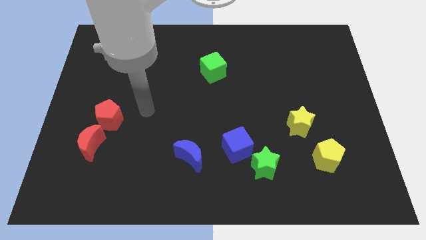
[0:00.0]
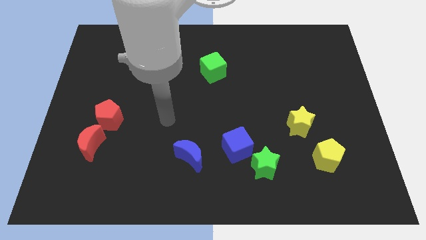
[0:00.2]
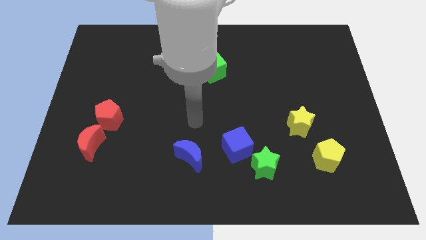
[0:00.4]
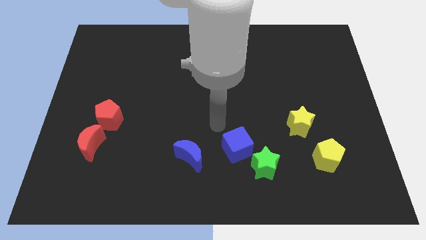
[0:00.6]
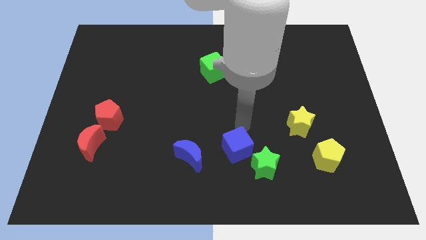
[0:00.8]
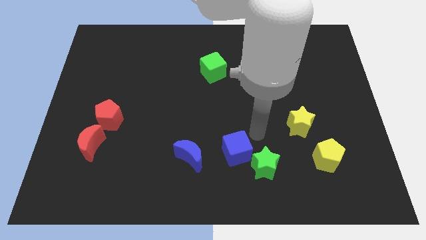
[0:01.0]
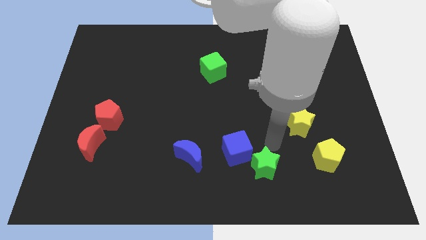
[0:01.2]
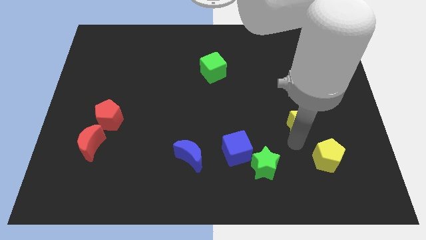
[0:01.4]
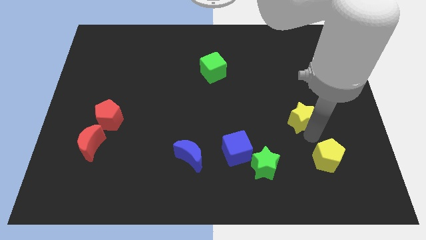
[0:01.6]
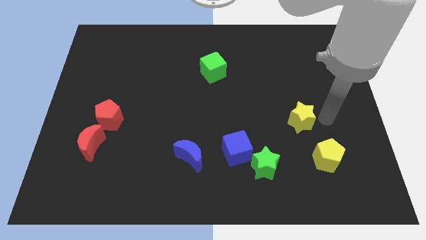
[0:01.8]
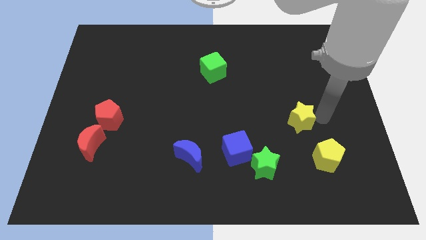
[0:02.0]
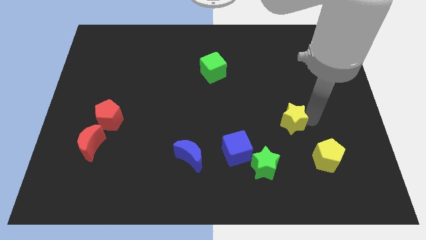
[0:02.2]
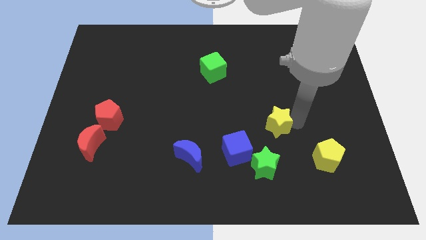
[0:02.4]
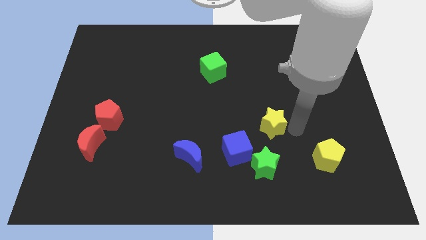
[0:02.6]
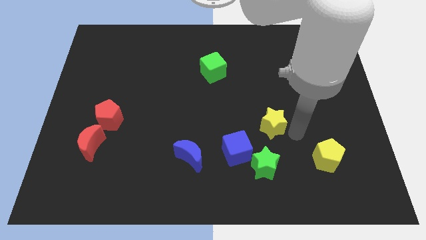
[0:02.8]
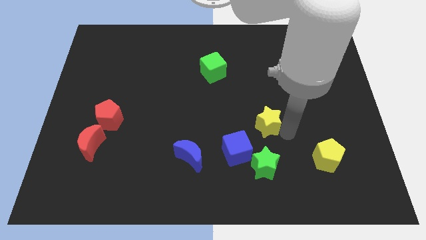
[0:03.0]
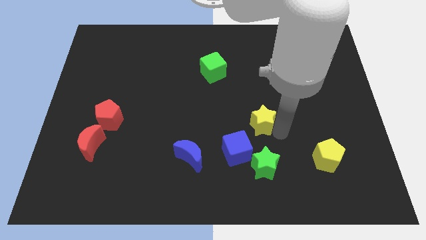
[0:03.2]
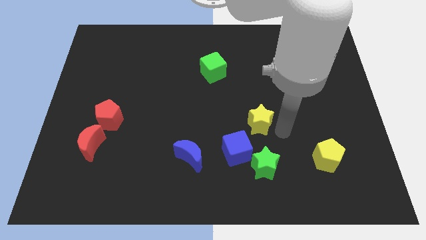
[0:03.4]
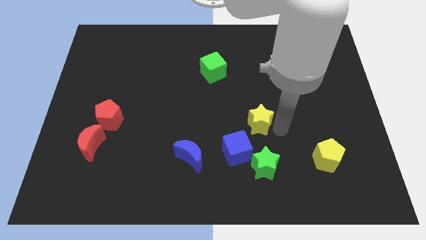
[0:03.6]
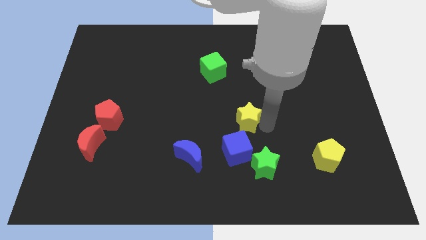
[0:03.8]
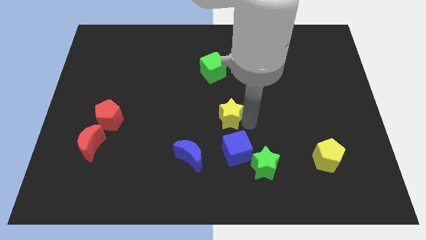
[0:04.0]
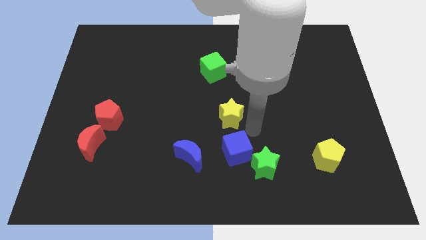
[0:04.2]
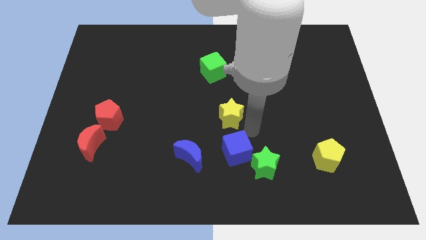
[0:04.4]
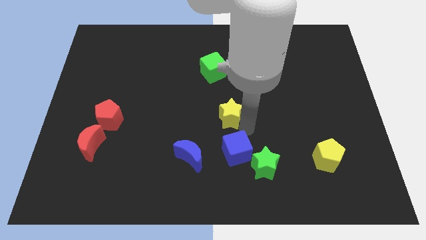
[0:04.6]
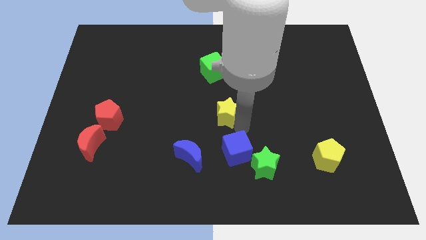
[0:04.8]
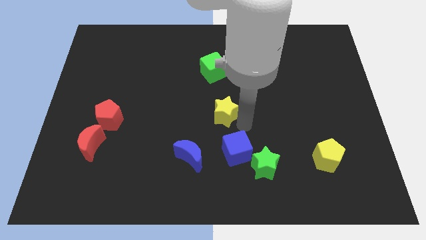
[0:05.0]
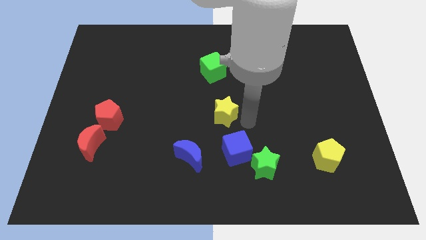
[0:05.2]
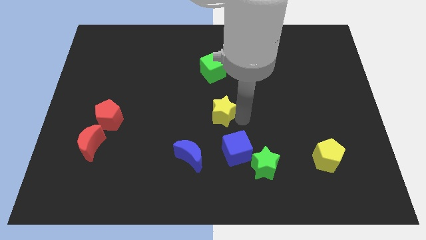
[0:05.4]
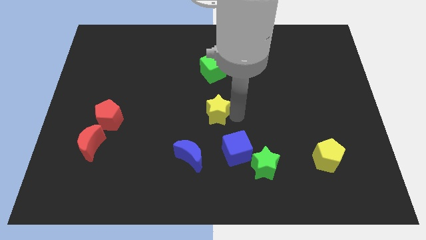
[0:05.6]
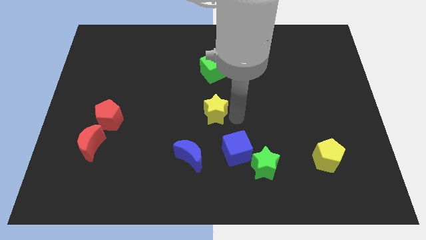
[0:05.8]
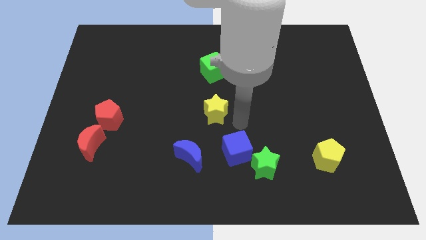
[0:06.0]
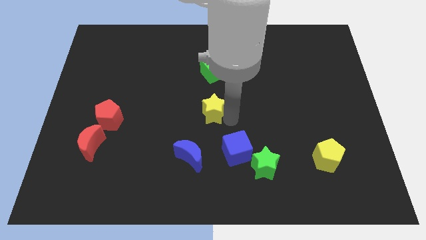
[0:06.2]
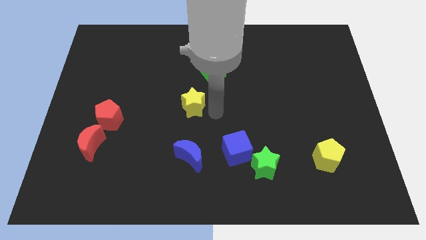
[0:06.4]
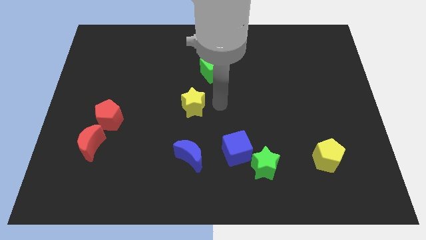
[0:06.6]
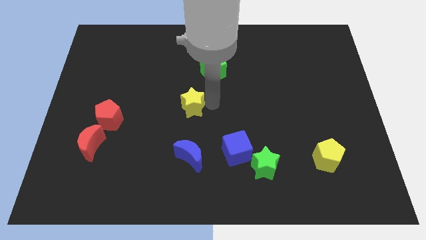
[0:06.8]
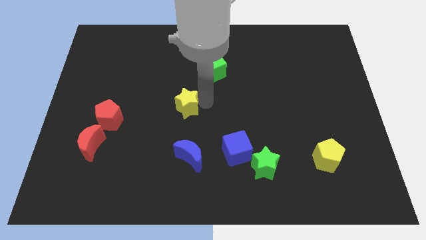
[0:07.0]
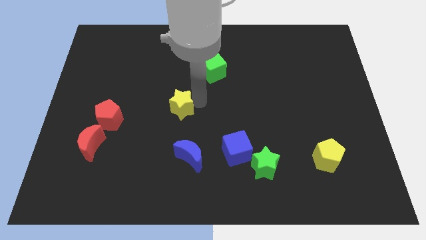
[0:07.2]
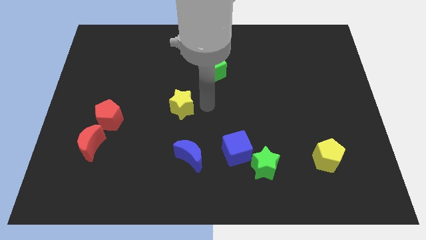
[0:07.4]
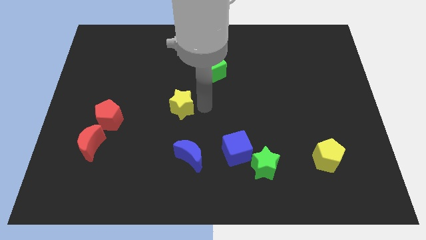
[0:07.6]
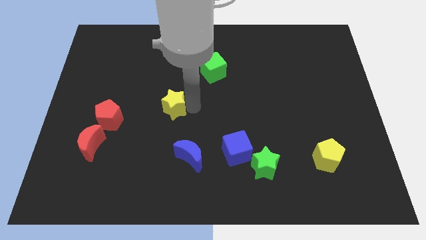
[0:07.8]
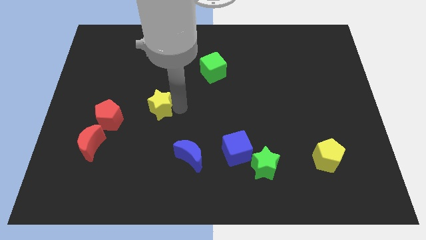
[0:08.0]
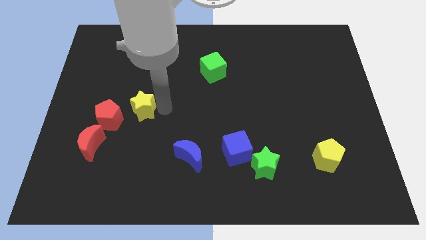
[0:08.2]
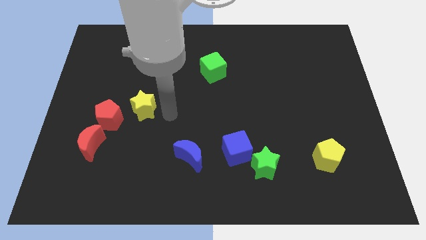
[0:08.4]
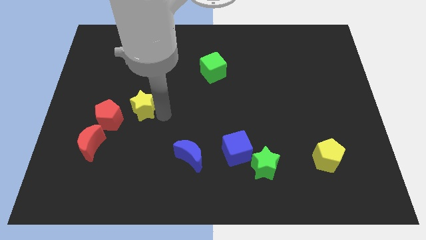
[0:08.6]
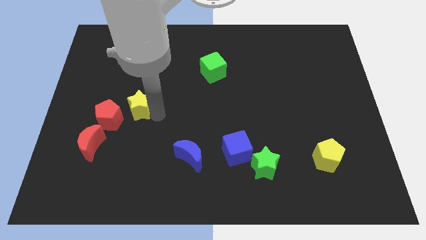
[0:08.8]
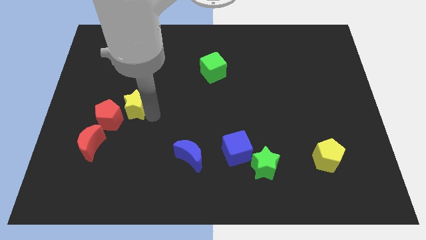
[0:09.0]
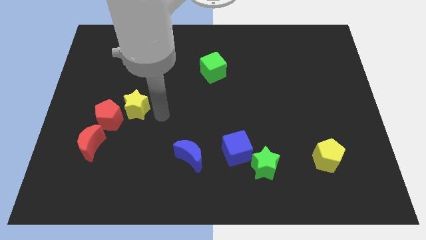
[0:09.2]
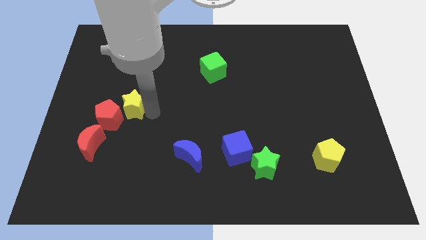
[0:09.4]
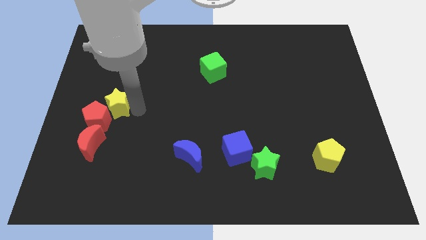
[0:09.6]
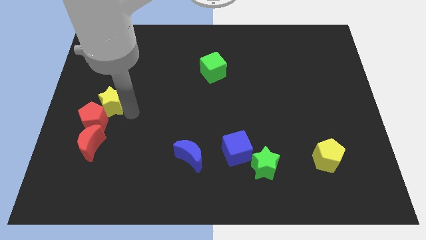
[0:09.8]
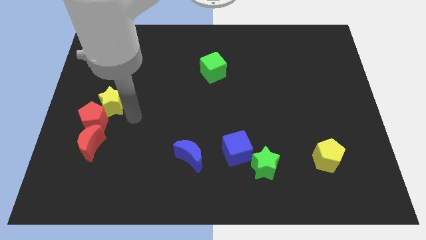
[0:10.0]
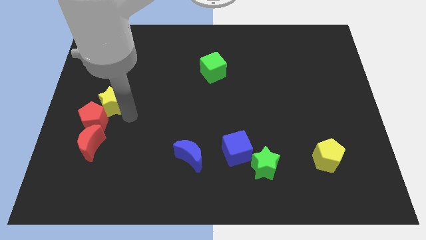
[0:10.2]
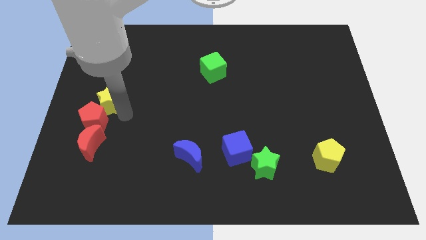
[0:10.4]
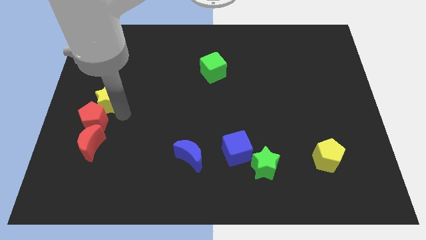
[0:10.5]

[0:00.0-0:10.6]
slide the yellow star to the left side of the board
